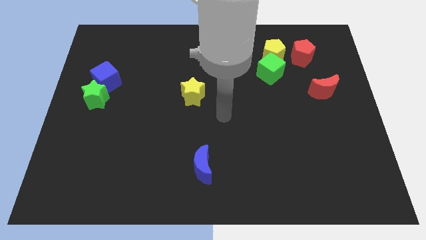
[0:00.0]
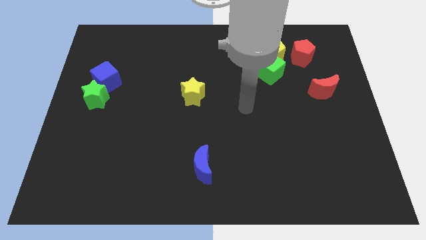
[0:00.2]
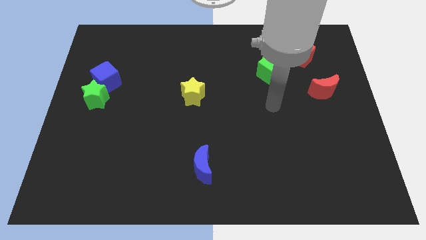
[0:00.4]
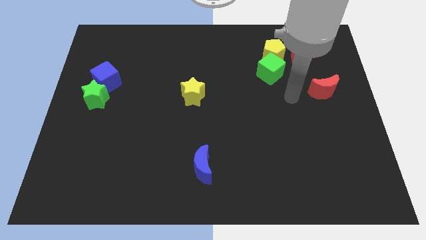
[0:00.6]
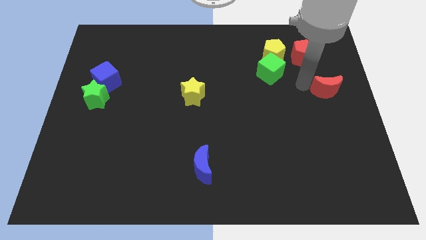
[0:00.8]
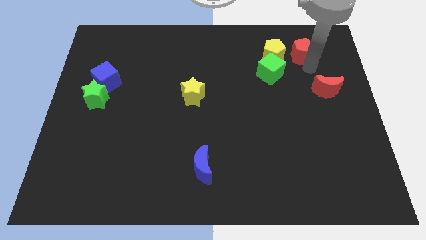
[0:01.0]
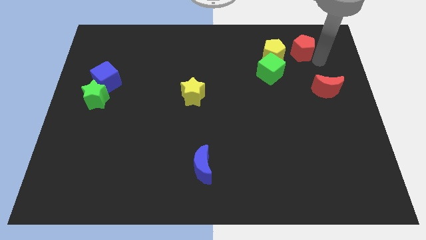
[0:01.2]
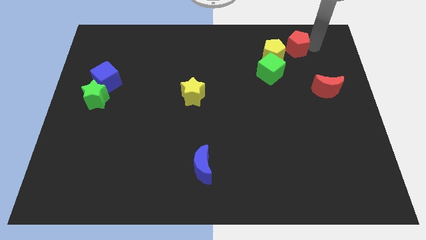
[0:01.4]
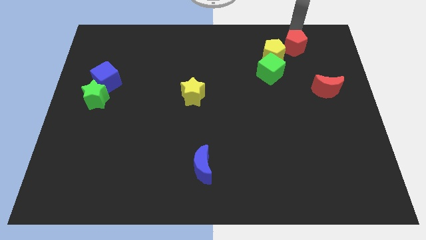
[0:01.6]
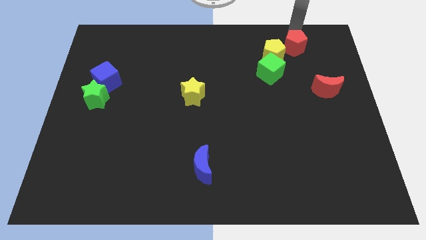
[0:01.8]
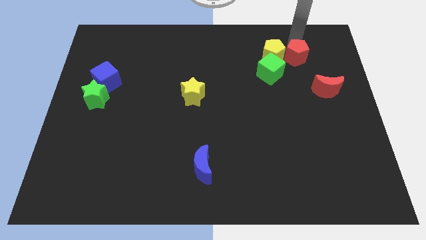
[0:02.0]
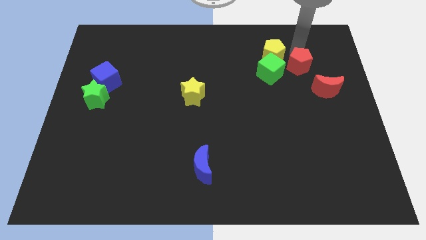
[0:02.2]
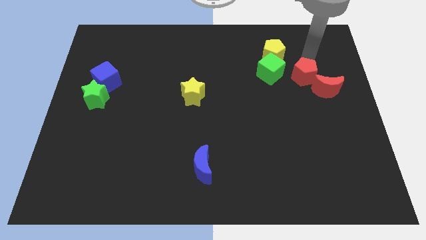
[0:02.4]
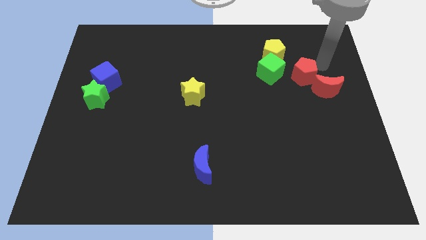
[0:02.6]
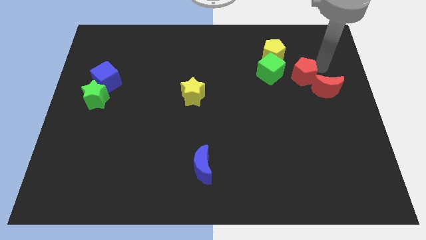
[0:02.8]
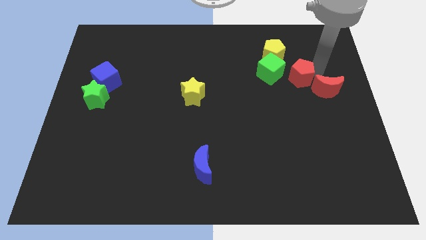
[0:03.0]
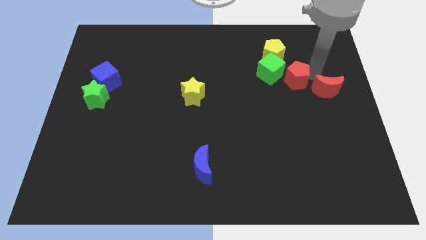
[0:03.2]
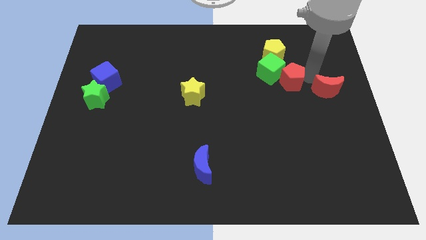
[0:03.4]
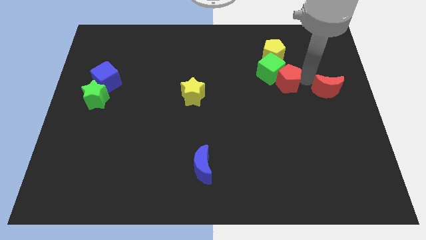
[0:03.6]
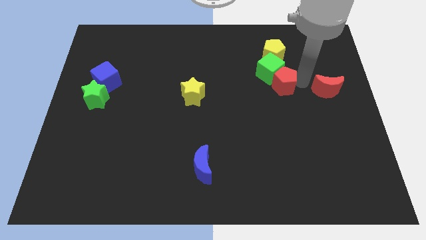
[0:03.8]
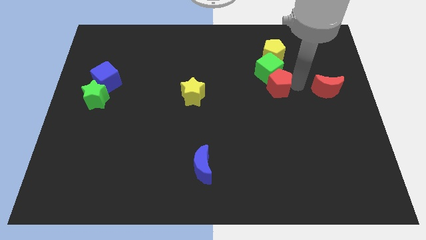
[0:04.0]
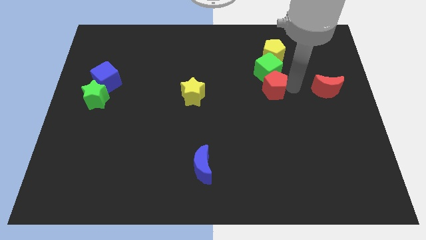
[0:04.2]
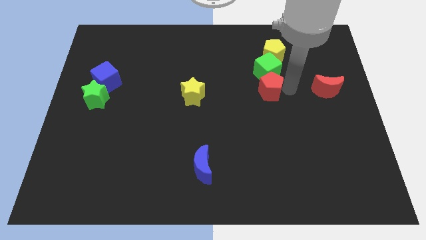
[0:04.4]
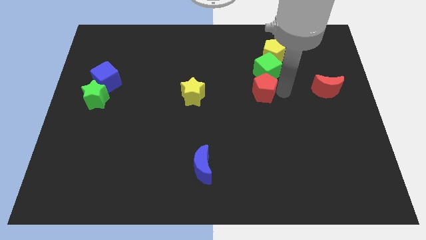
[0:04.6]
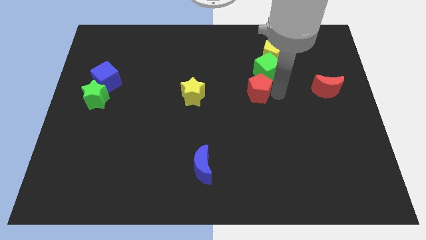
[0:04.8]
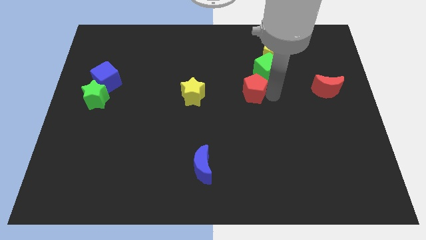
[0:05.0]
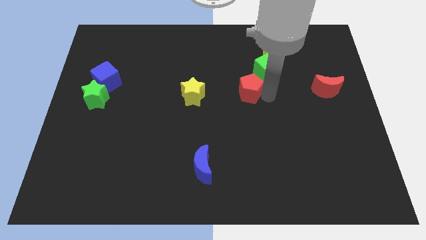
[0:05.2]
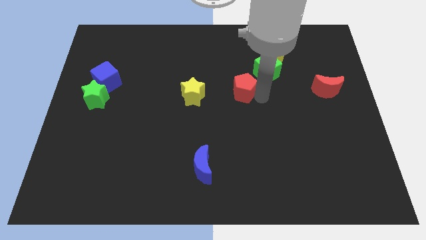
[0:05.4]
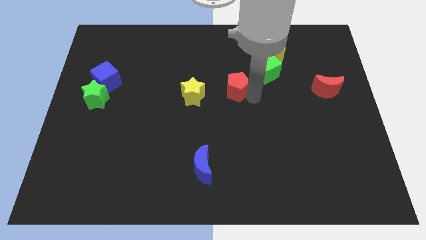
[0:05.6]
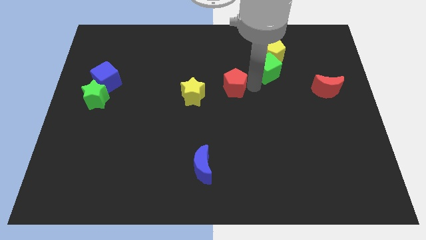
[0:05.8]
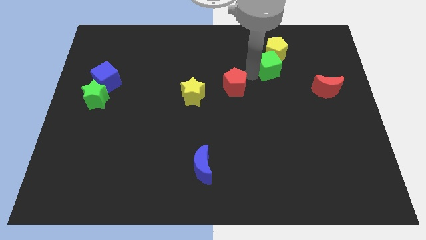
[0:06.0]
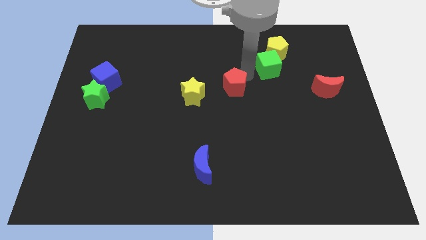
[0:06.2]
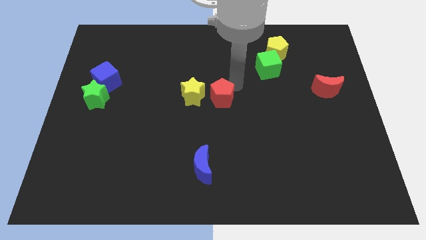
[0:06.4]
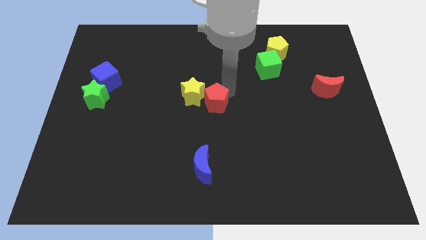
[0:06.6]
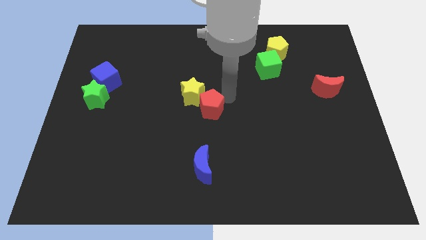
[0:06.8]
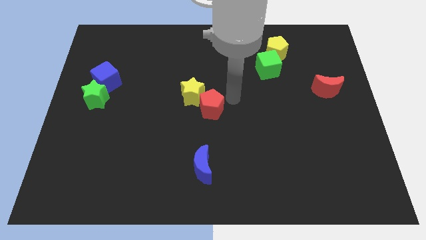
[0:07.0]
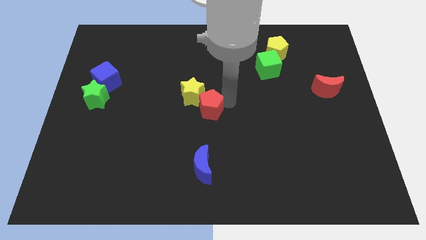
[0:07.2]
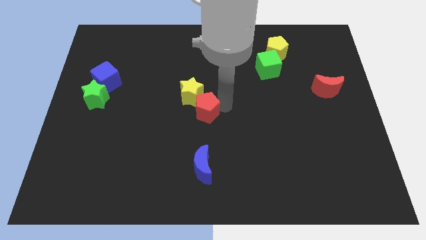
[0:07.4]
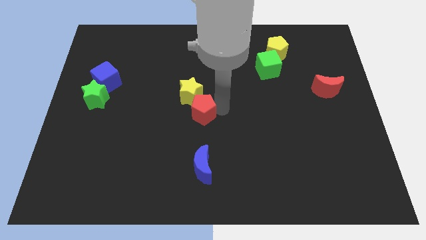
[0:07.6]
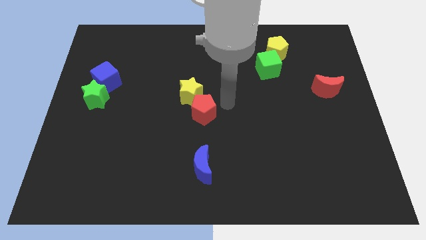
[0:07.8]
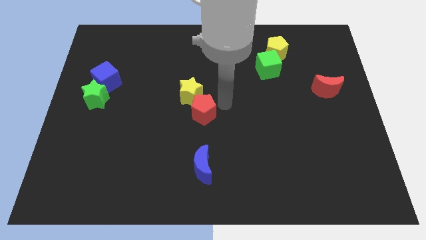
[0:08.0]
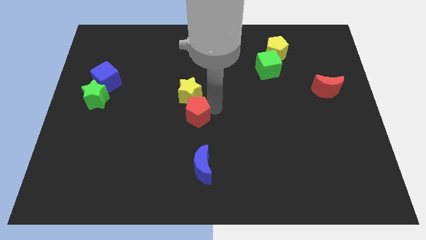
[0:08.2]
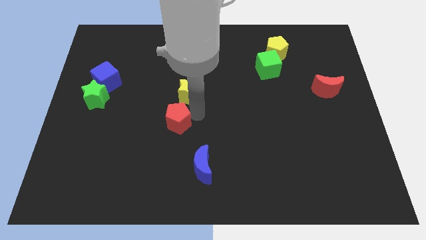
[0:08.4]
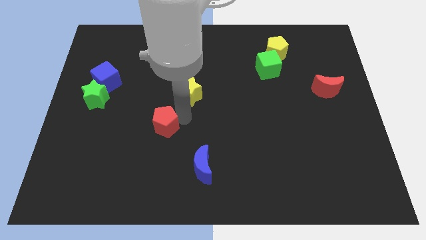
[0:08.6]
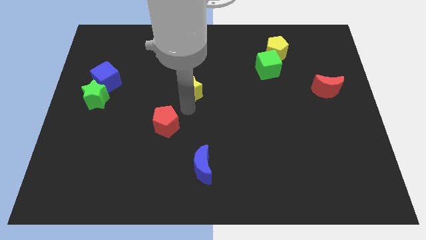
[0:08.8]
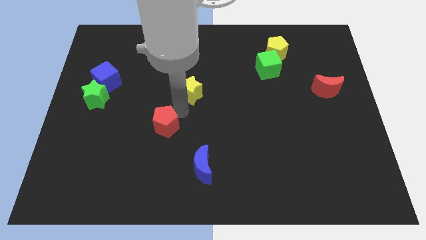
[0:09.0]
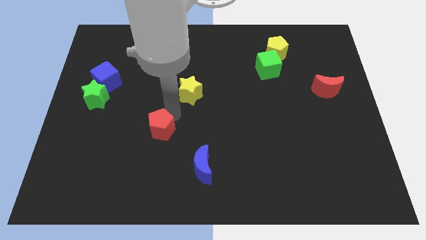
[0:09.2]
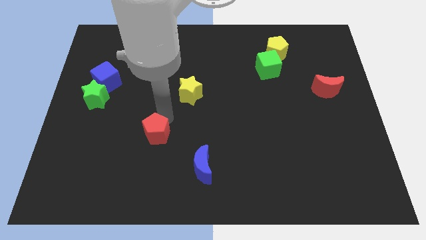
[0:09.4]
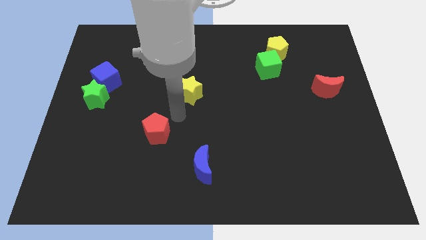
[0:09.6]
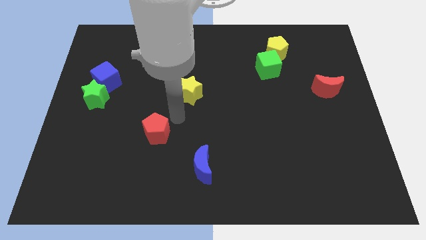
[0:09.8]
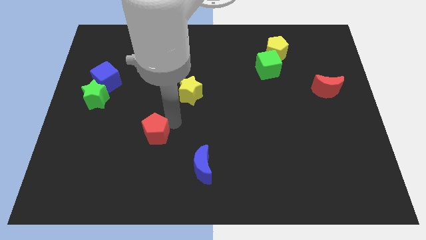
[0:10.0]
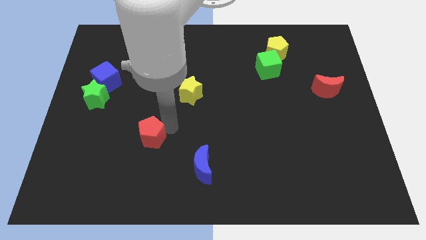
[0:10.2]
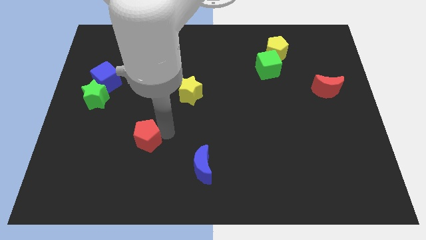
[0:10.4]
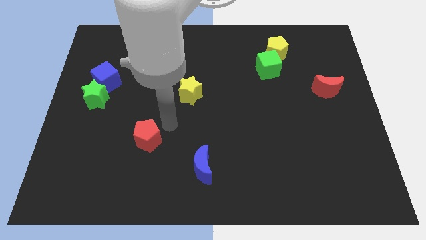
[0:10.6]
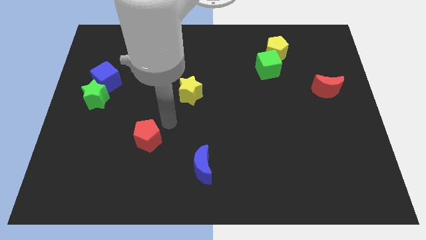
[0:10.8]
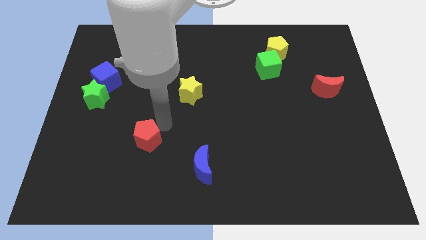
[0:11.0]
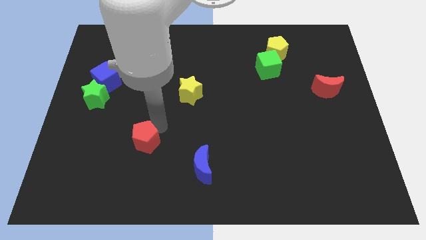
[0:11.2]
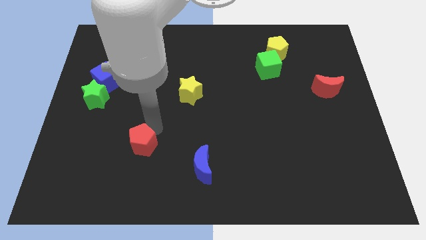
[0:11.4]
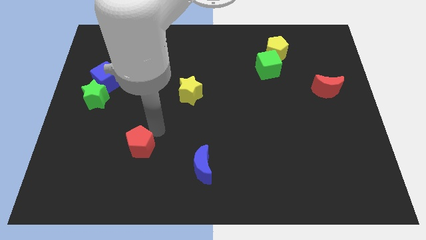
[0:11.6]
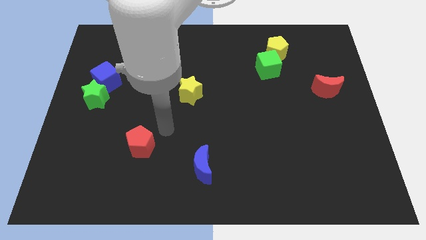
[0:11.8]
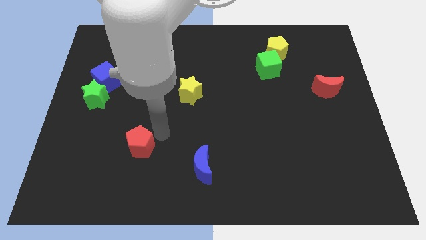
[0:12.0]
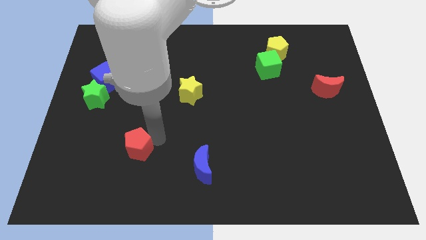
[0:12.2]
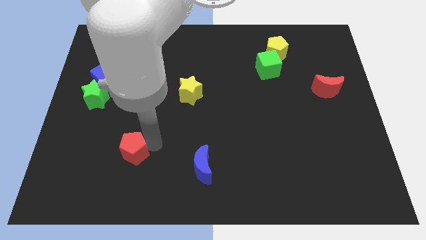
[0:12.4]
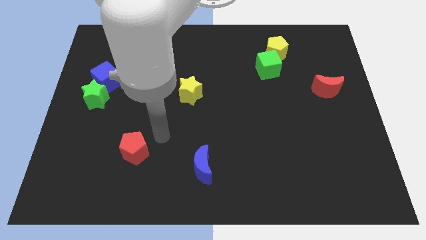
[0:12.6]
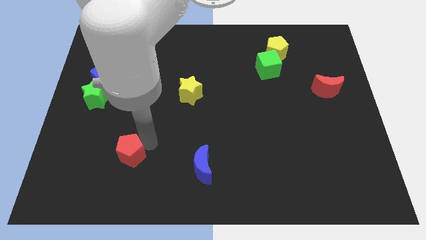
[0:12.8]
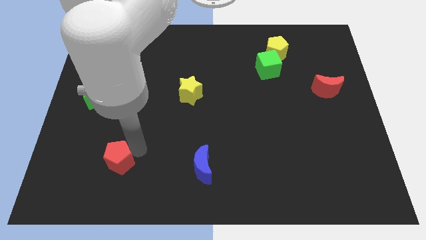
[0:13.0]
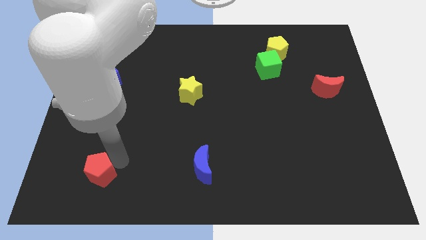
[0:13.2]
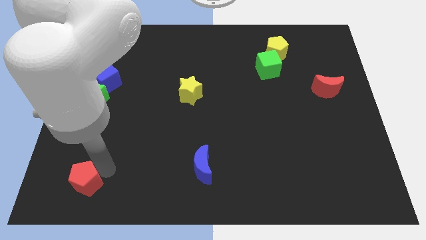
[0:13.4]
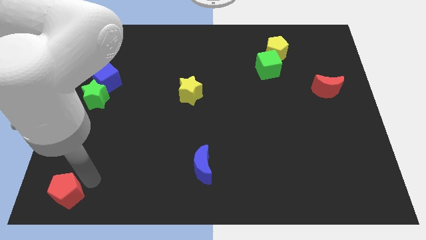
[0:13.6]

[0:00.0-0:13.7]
put the red pentagon to the bottom left corner
